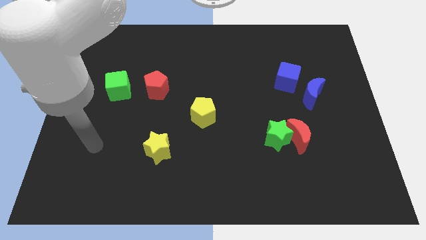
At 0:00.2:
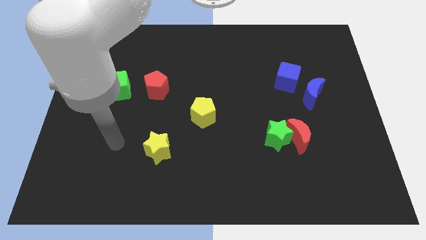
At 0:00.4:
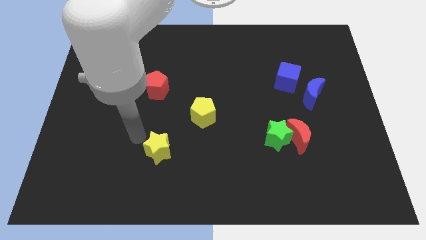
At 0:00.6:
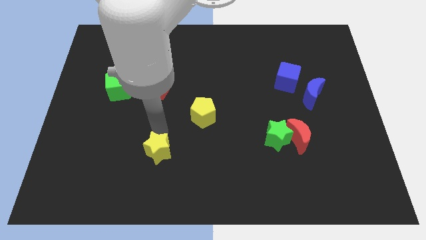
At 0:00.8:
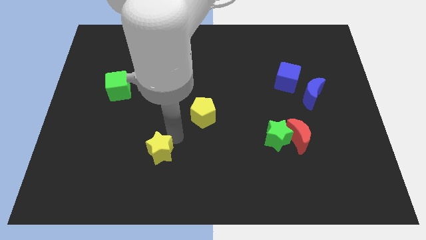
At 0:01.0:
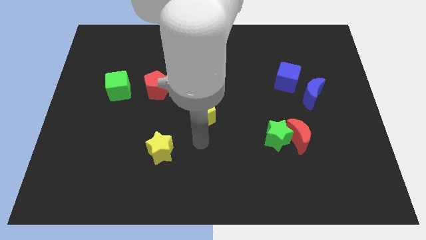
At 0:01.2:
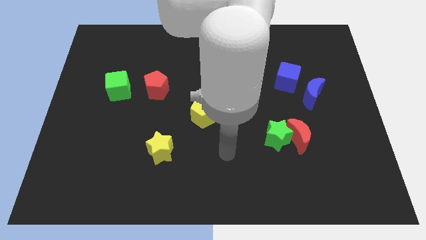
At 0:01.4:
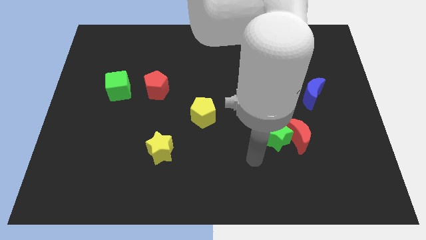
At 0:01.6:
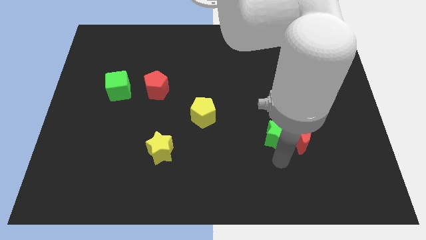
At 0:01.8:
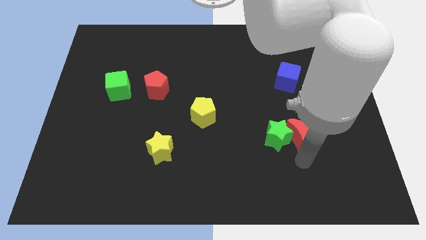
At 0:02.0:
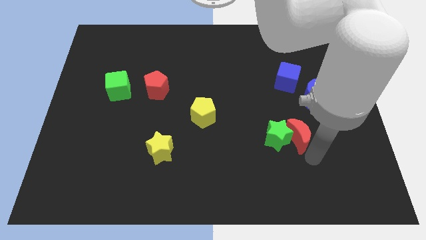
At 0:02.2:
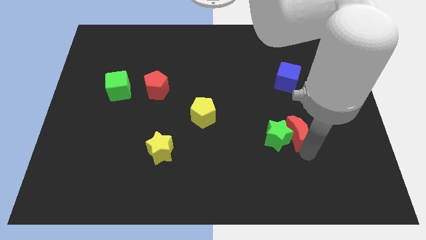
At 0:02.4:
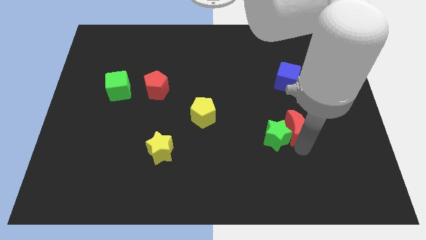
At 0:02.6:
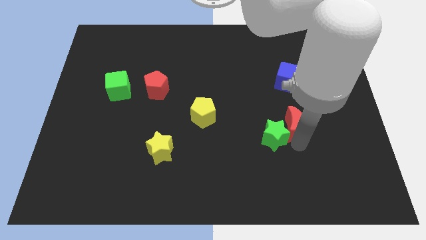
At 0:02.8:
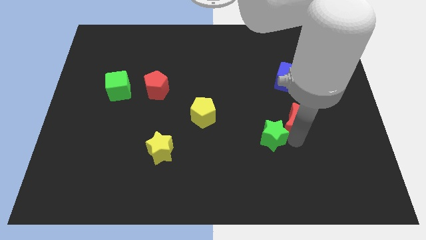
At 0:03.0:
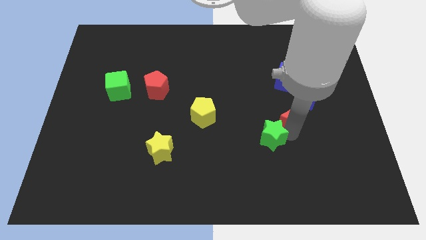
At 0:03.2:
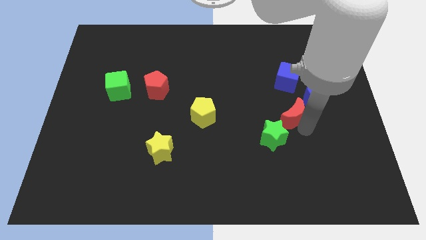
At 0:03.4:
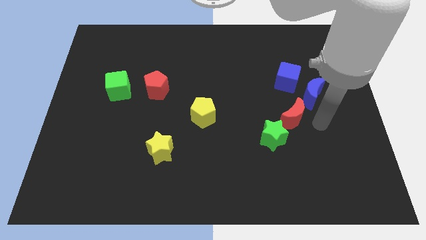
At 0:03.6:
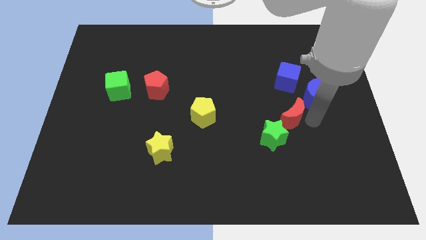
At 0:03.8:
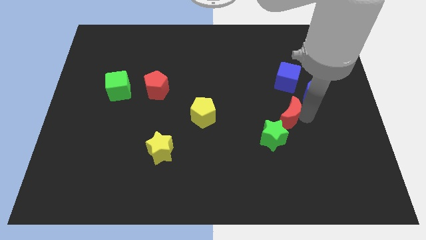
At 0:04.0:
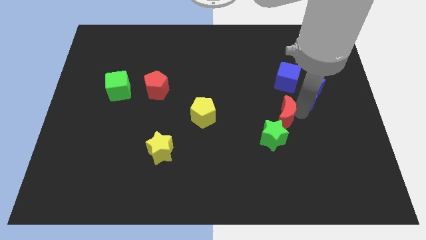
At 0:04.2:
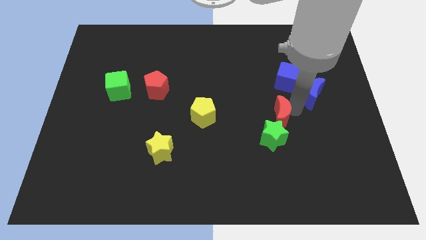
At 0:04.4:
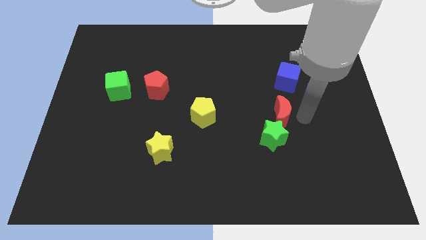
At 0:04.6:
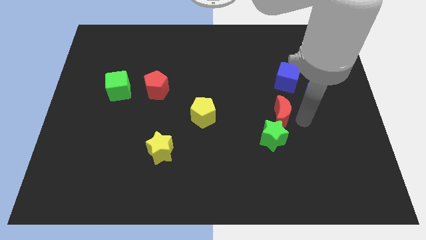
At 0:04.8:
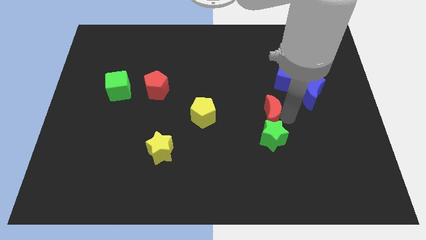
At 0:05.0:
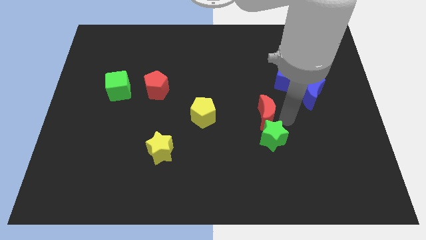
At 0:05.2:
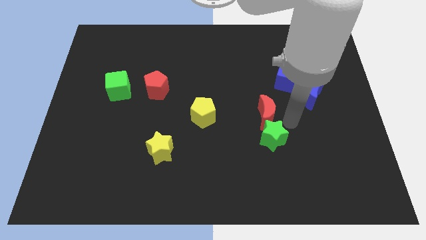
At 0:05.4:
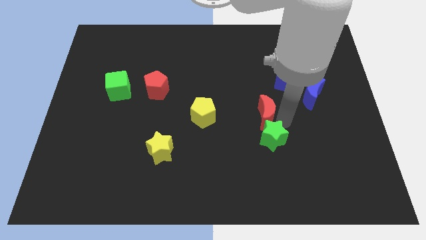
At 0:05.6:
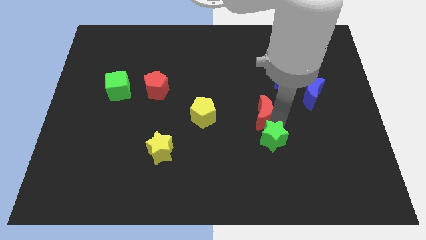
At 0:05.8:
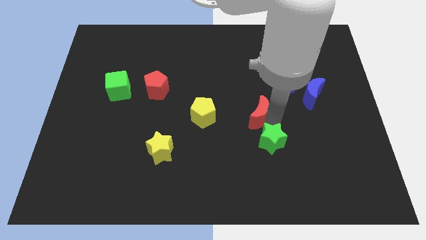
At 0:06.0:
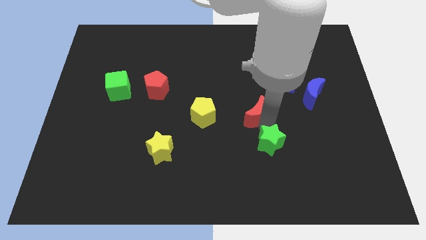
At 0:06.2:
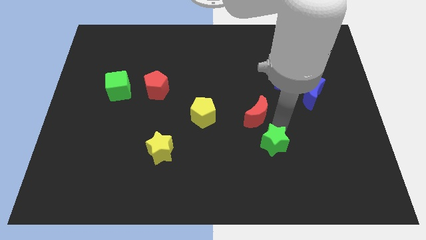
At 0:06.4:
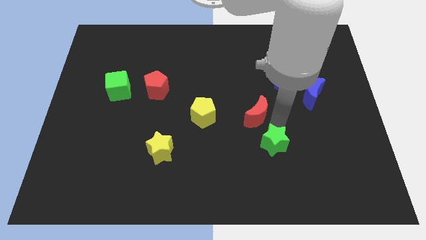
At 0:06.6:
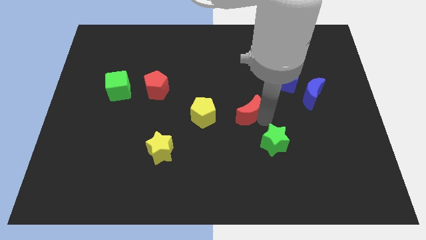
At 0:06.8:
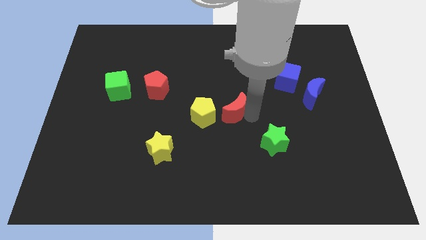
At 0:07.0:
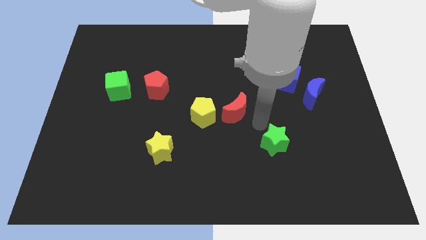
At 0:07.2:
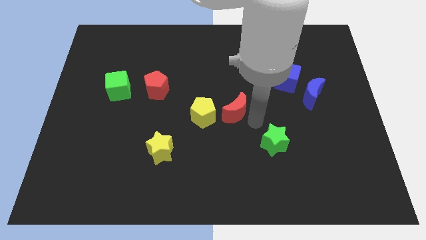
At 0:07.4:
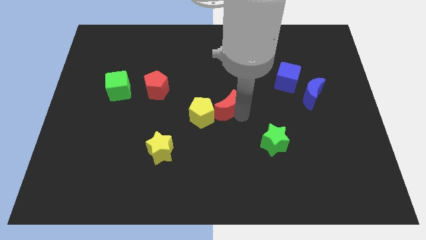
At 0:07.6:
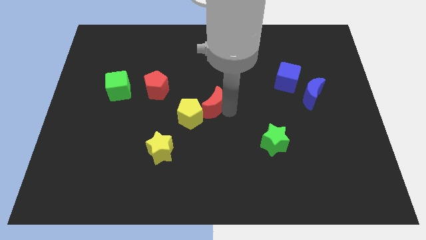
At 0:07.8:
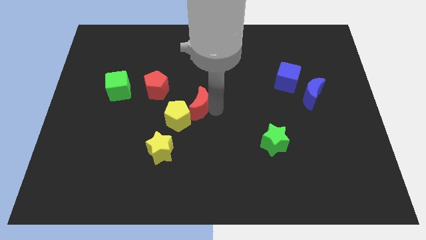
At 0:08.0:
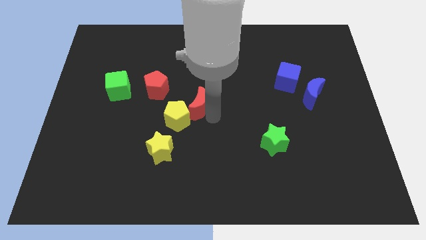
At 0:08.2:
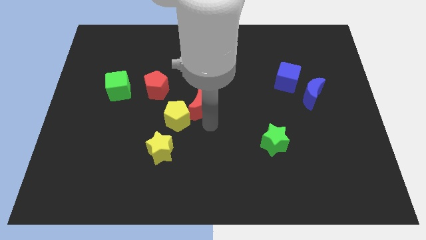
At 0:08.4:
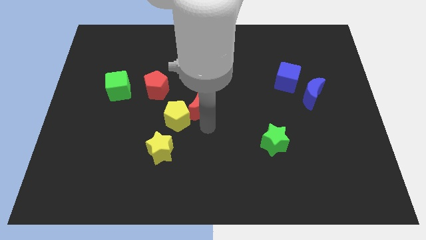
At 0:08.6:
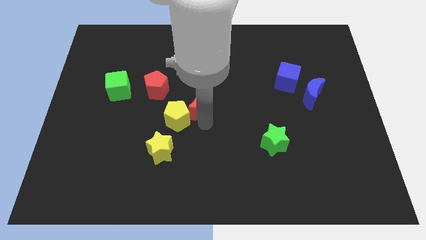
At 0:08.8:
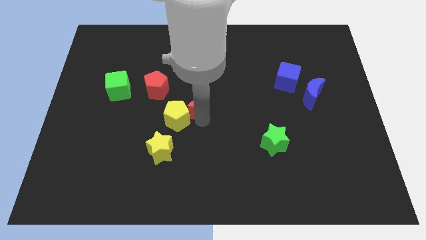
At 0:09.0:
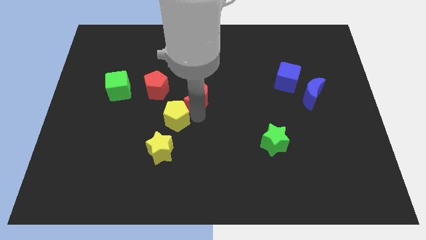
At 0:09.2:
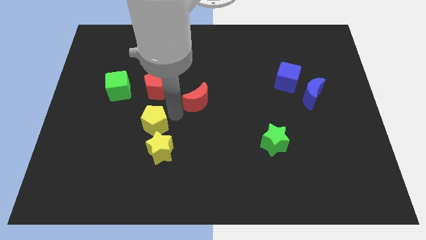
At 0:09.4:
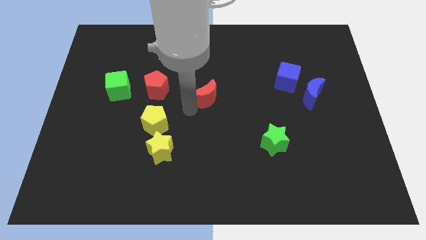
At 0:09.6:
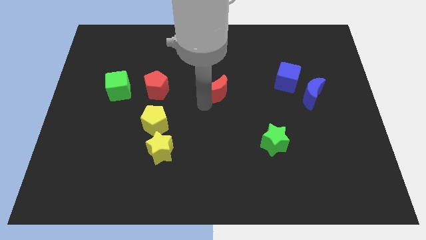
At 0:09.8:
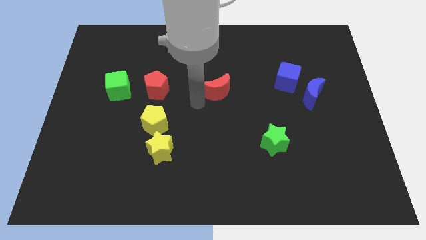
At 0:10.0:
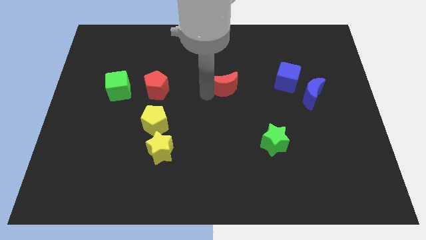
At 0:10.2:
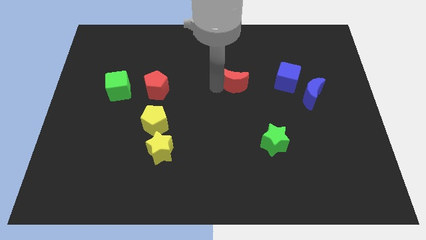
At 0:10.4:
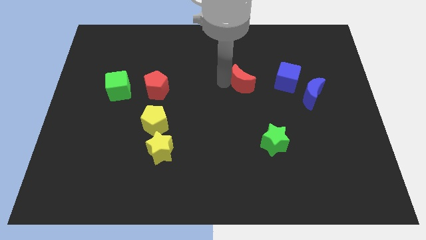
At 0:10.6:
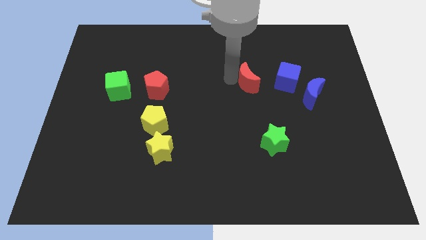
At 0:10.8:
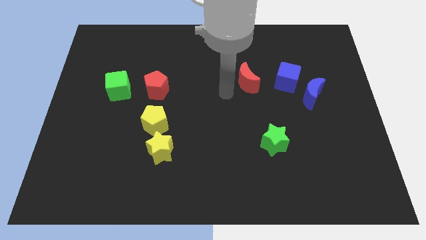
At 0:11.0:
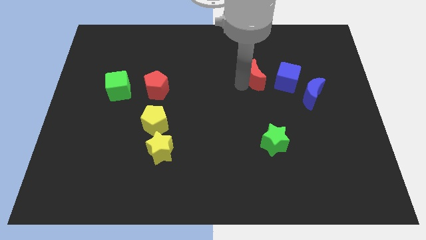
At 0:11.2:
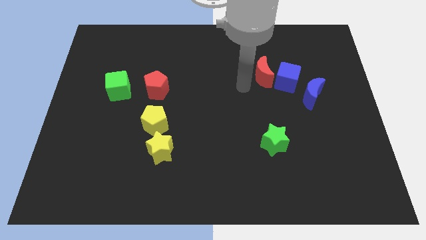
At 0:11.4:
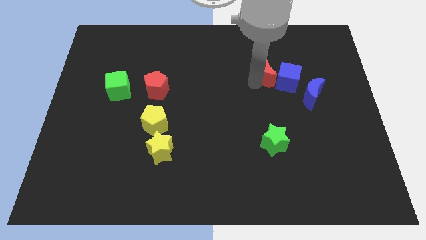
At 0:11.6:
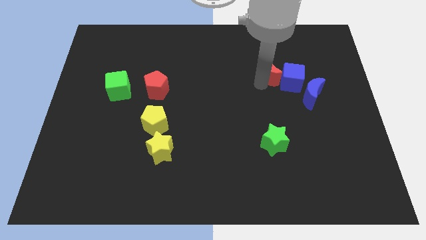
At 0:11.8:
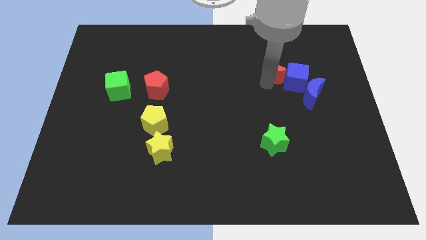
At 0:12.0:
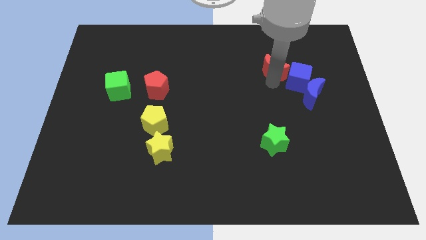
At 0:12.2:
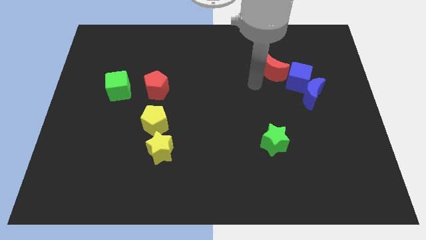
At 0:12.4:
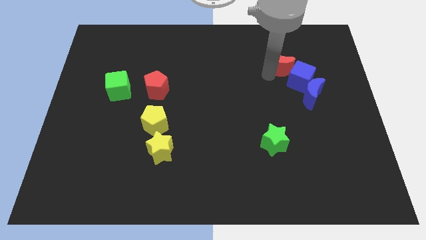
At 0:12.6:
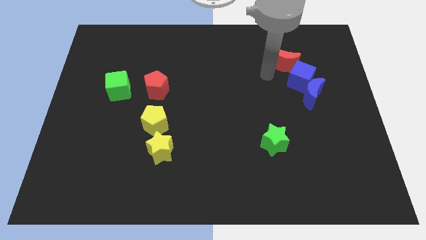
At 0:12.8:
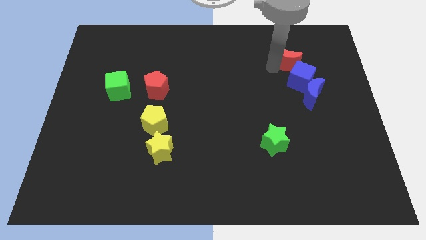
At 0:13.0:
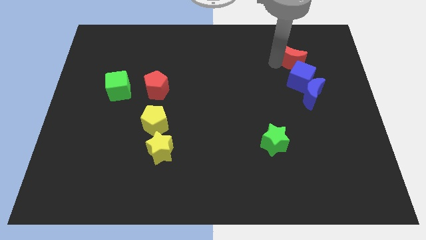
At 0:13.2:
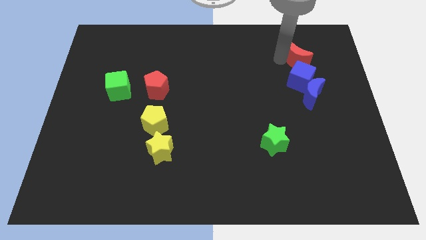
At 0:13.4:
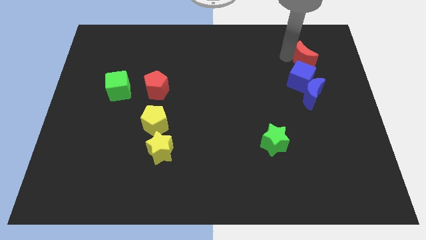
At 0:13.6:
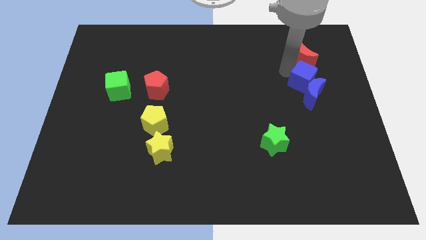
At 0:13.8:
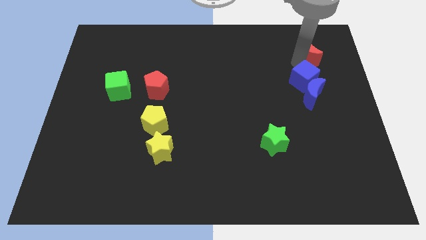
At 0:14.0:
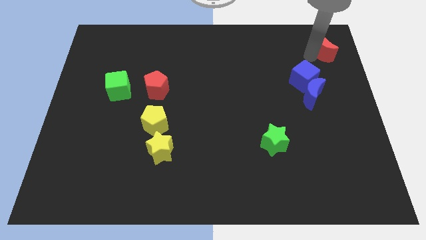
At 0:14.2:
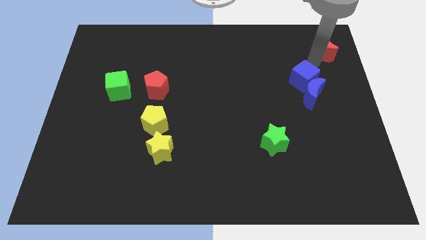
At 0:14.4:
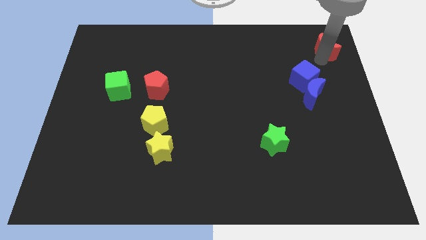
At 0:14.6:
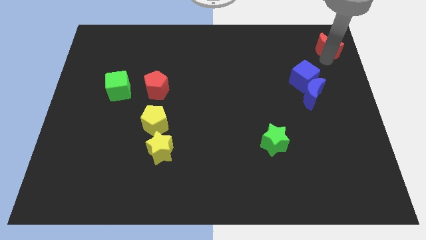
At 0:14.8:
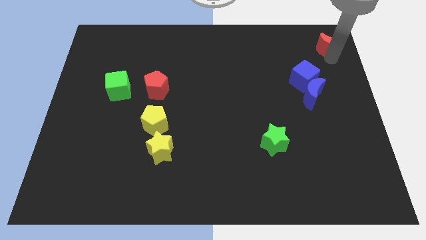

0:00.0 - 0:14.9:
move the red moon to the top right

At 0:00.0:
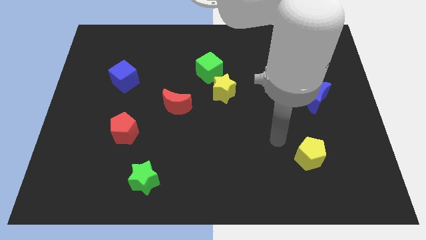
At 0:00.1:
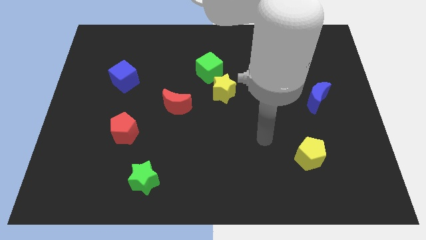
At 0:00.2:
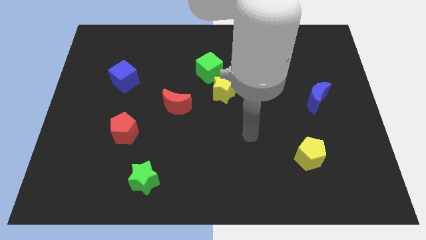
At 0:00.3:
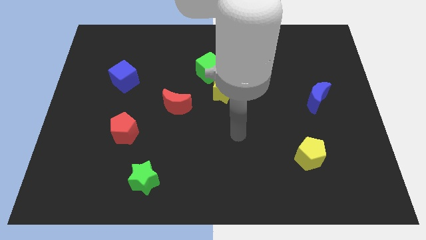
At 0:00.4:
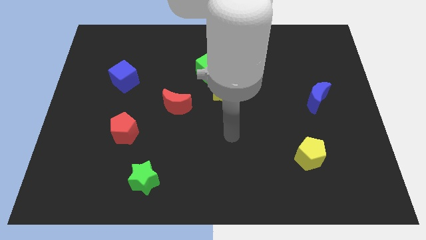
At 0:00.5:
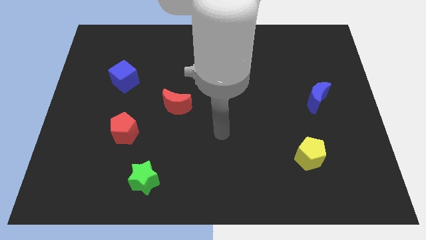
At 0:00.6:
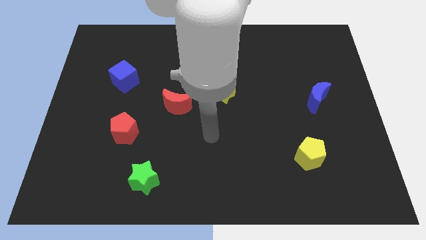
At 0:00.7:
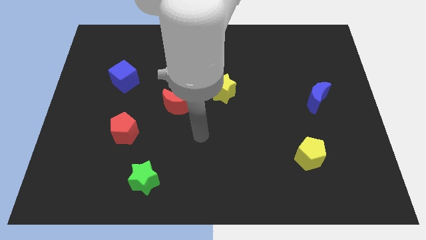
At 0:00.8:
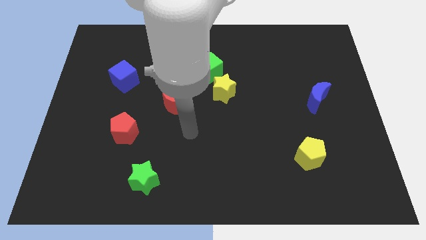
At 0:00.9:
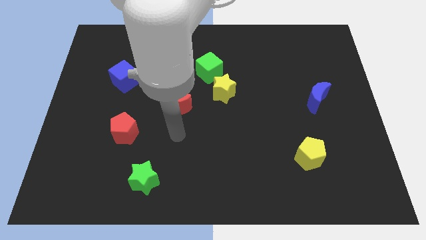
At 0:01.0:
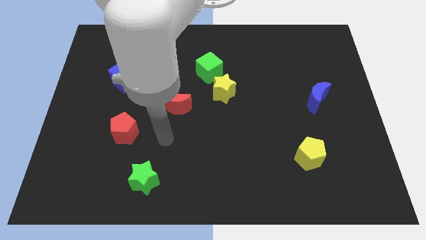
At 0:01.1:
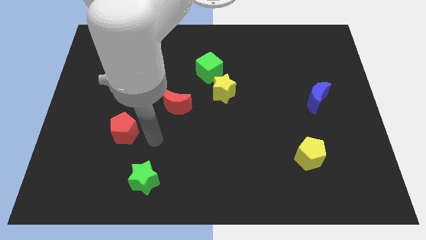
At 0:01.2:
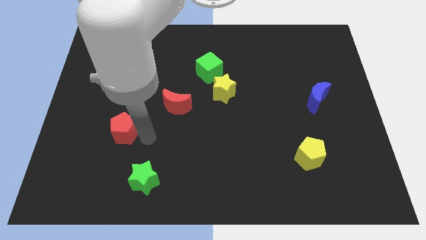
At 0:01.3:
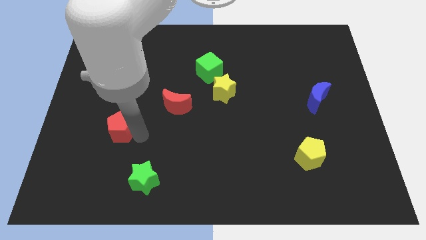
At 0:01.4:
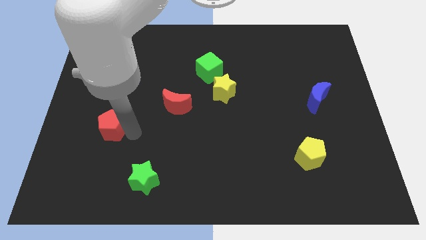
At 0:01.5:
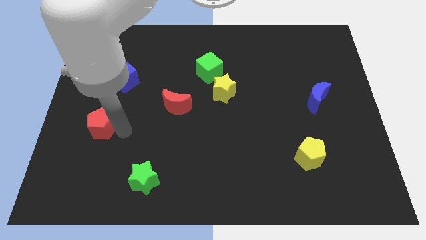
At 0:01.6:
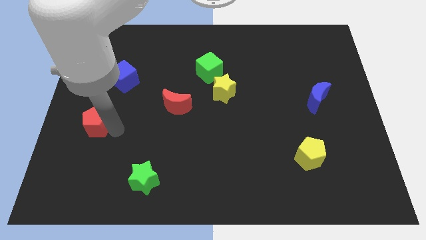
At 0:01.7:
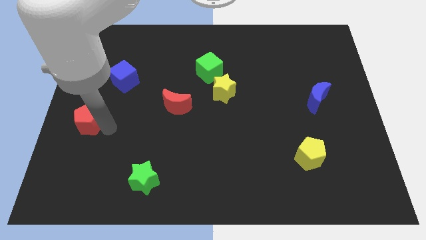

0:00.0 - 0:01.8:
push the red pentagon to the center left
